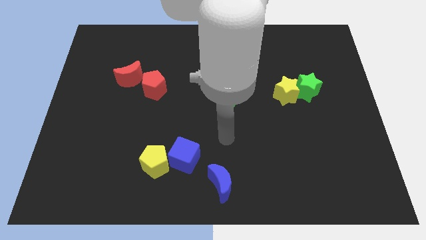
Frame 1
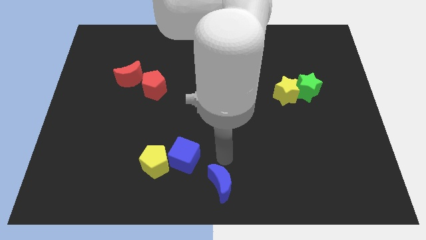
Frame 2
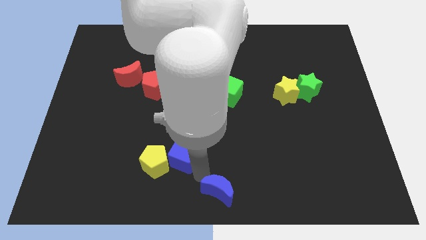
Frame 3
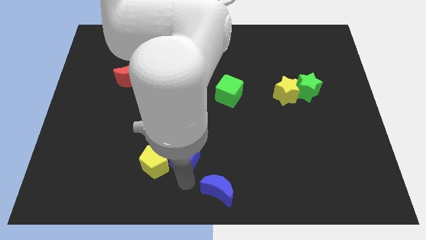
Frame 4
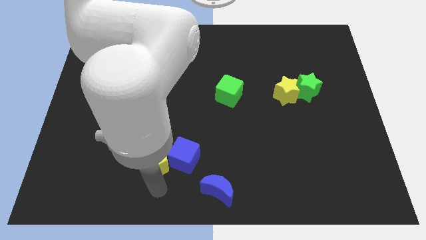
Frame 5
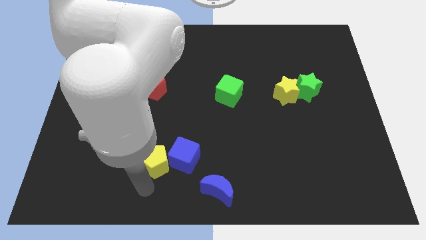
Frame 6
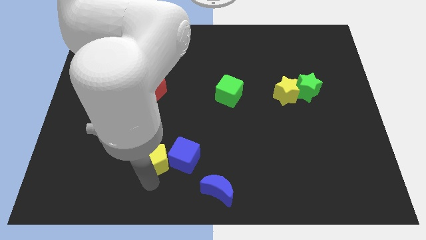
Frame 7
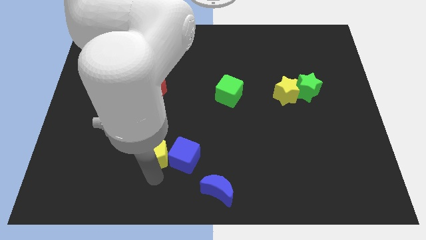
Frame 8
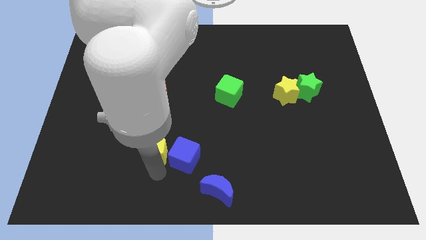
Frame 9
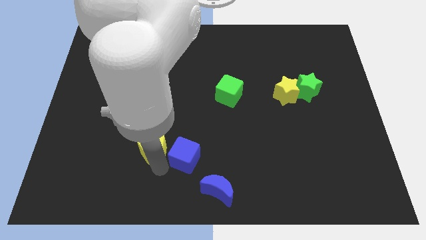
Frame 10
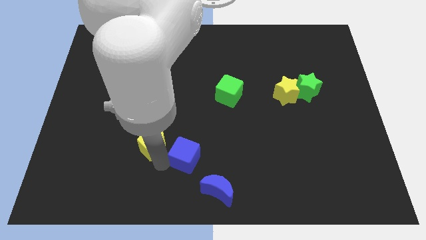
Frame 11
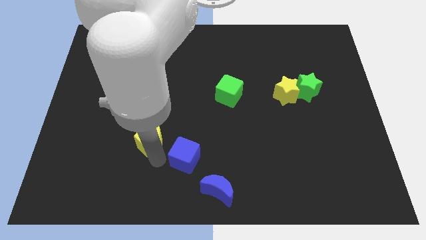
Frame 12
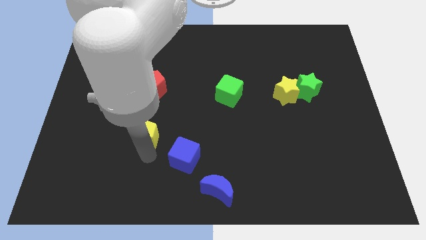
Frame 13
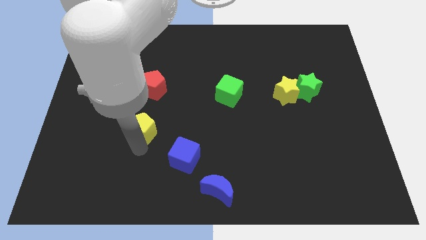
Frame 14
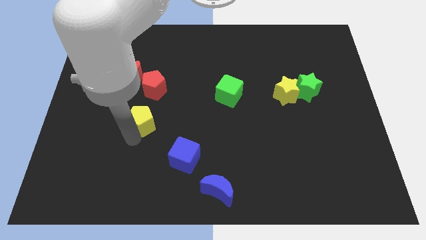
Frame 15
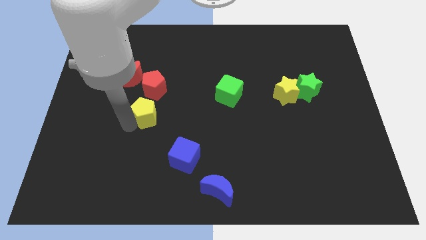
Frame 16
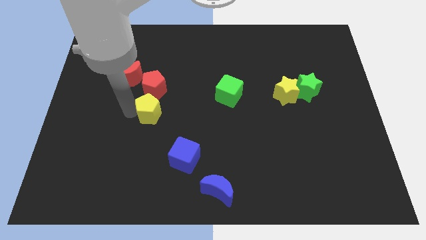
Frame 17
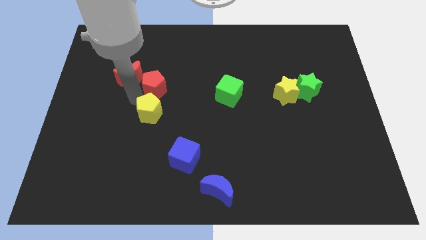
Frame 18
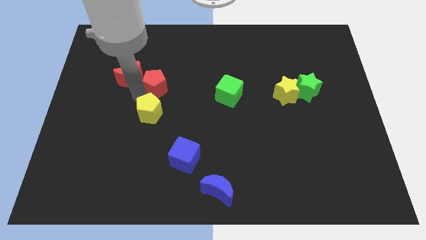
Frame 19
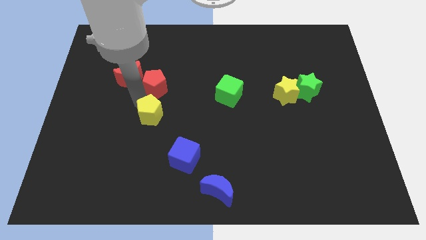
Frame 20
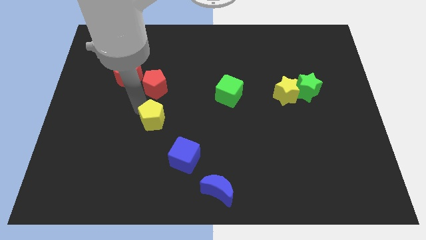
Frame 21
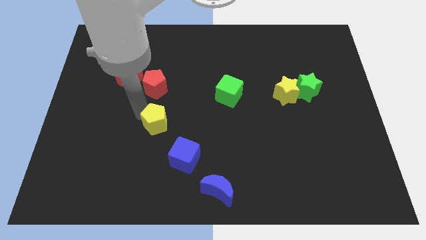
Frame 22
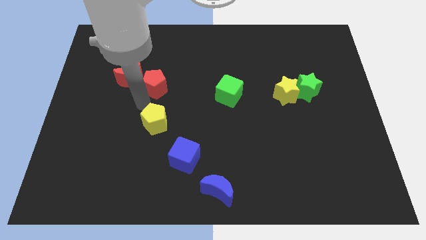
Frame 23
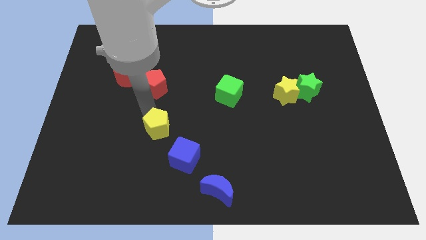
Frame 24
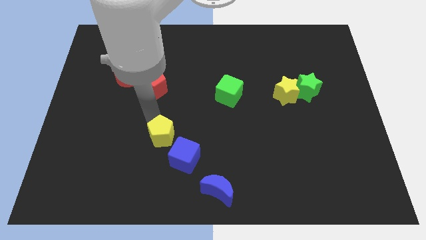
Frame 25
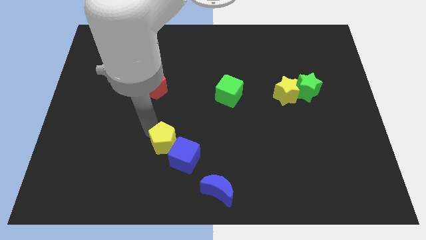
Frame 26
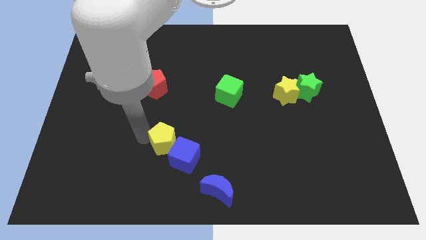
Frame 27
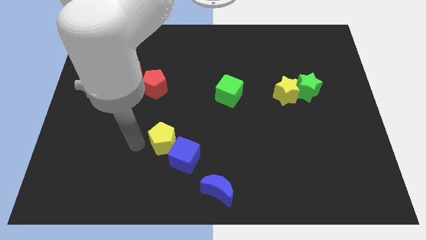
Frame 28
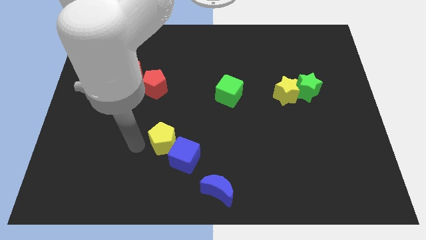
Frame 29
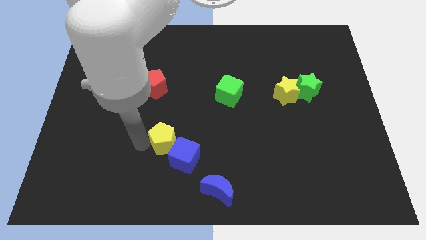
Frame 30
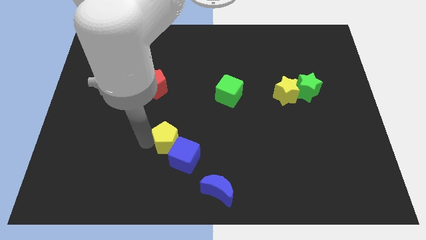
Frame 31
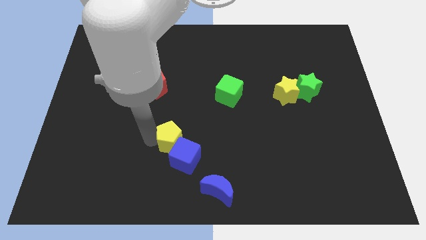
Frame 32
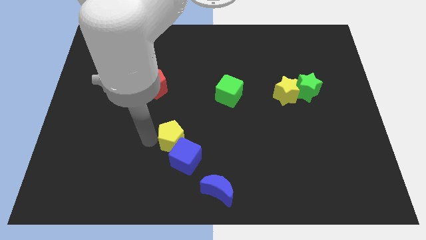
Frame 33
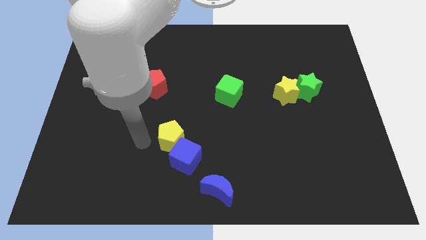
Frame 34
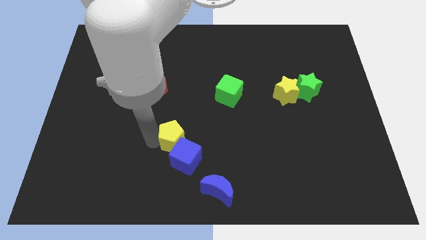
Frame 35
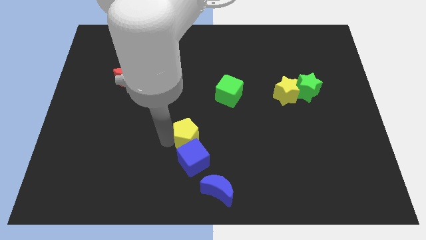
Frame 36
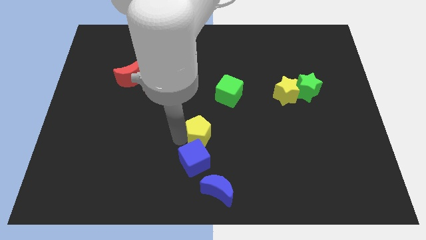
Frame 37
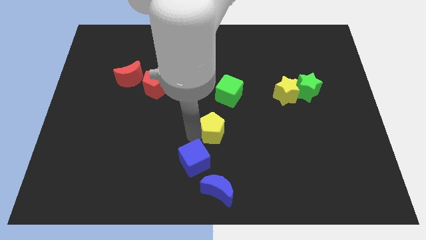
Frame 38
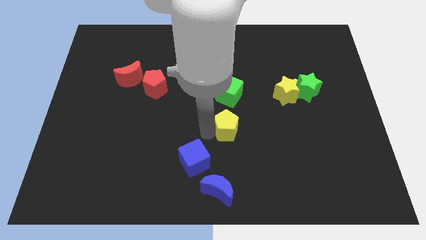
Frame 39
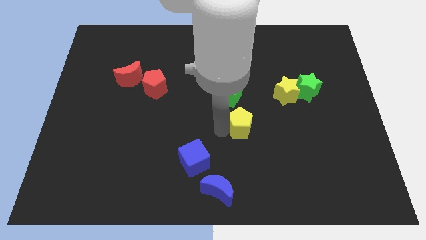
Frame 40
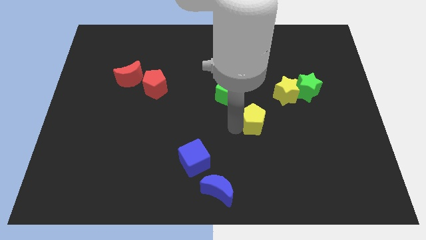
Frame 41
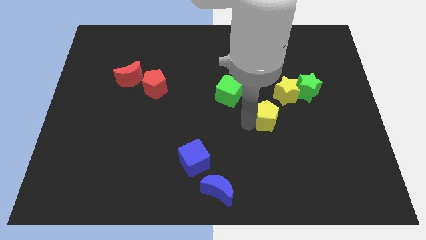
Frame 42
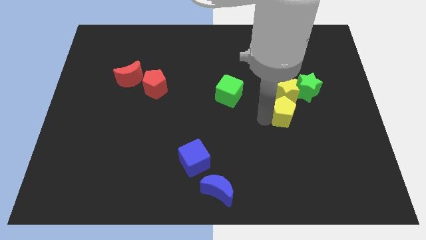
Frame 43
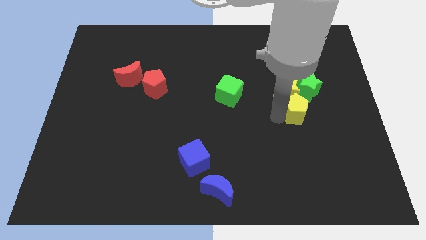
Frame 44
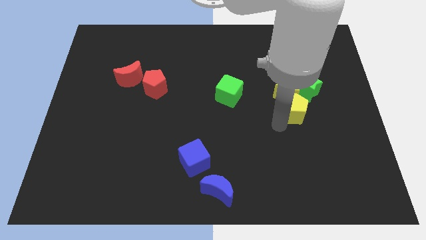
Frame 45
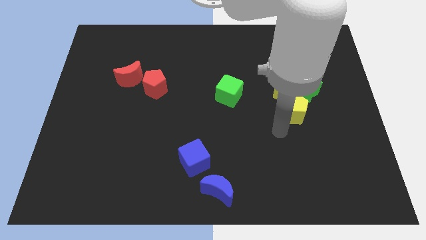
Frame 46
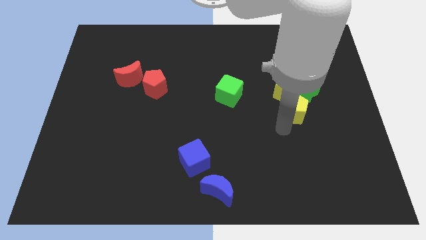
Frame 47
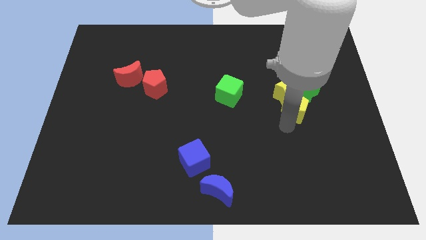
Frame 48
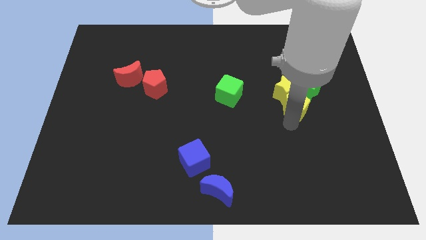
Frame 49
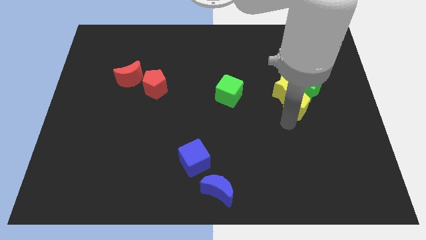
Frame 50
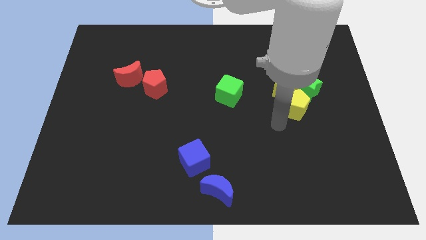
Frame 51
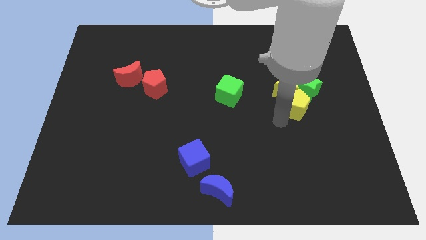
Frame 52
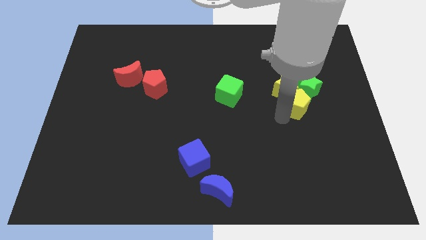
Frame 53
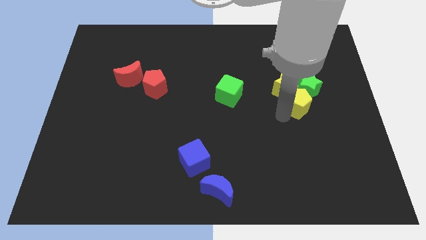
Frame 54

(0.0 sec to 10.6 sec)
slide the yellow pentagon towards the green star
